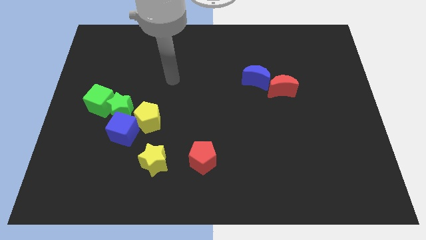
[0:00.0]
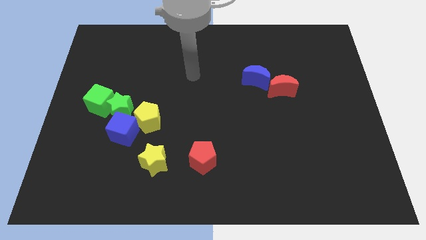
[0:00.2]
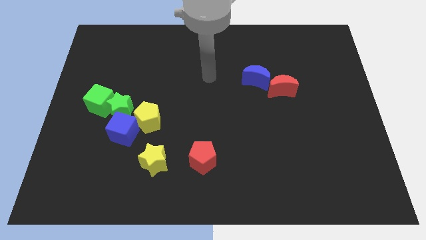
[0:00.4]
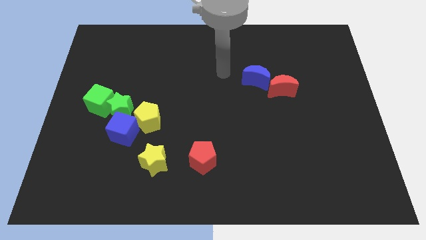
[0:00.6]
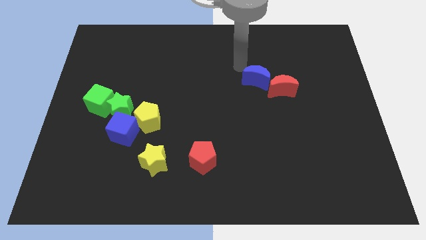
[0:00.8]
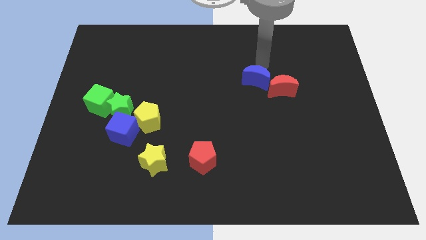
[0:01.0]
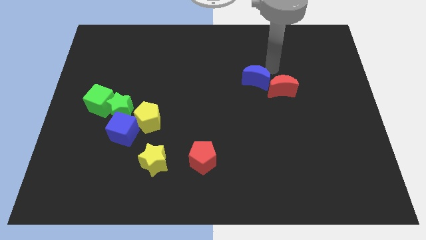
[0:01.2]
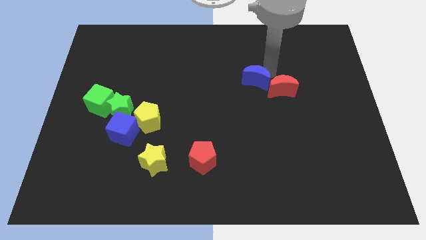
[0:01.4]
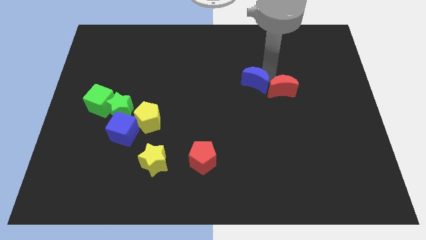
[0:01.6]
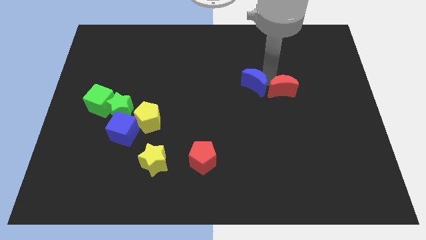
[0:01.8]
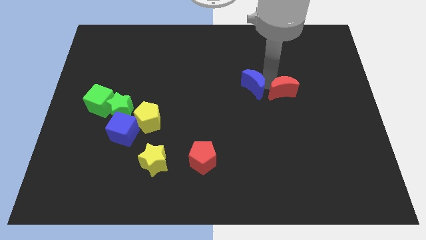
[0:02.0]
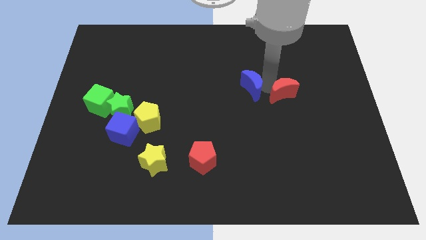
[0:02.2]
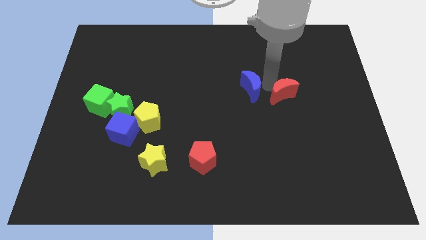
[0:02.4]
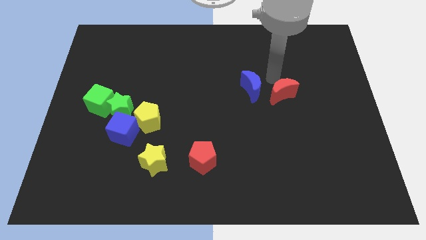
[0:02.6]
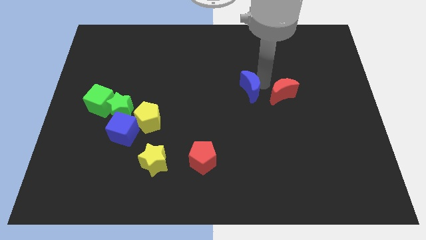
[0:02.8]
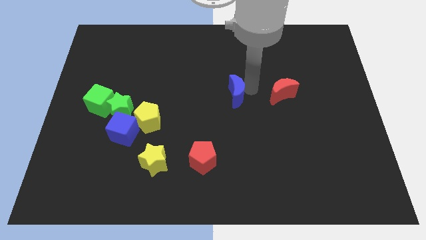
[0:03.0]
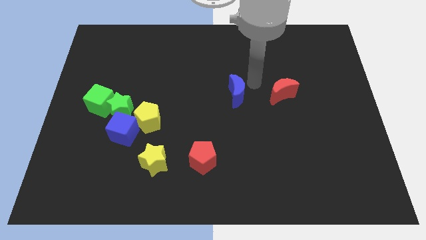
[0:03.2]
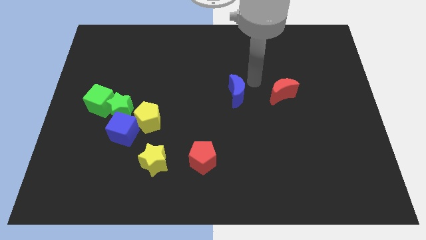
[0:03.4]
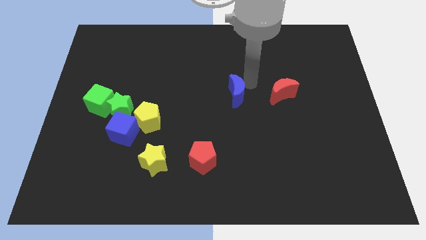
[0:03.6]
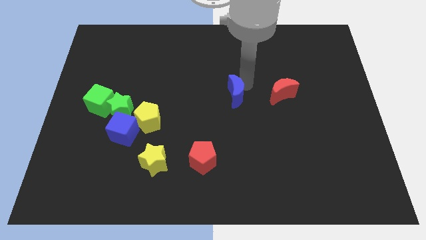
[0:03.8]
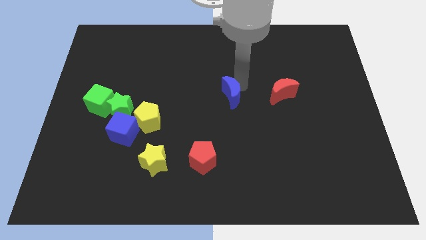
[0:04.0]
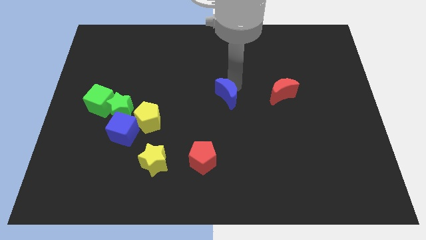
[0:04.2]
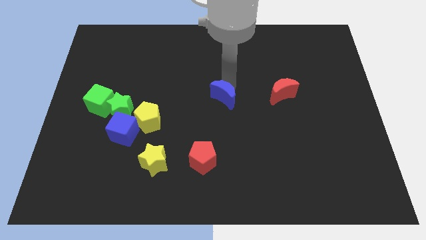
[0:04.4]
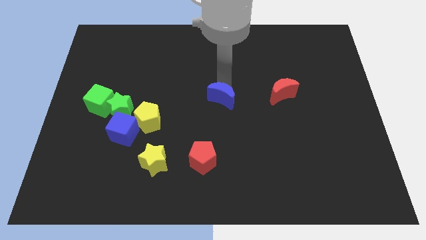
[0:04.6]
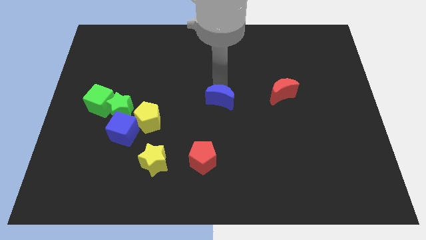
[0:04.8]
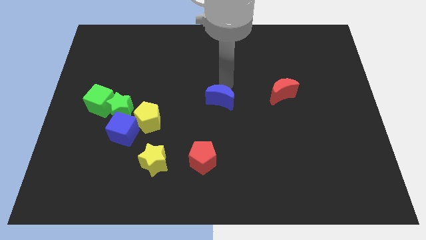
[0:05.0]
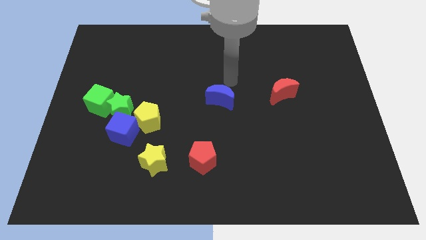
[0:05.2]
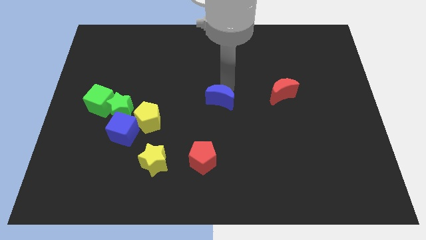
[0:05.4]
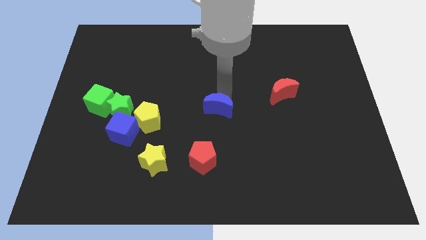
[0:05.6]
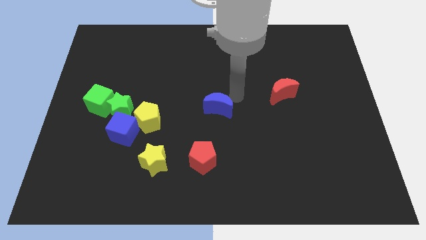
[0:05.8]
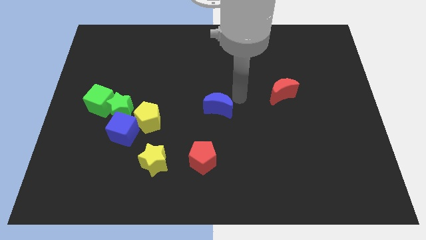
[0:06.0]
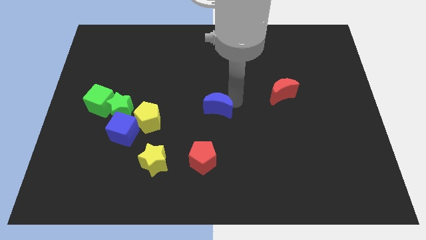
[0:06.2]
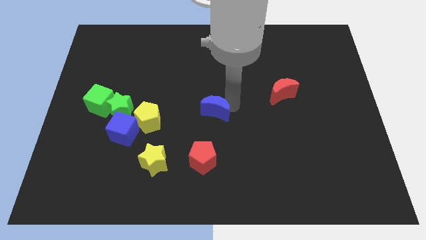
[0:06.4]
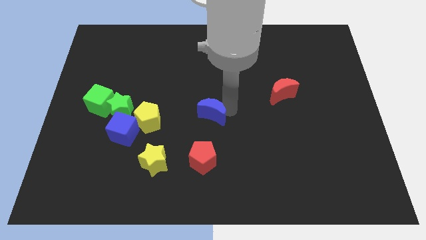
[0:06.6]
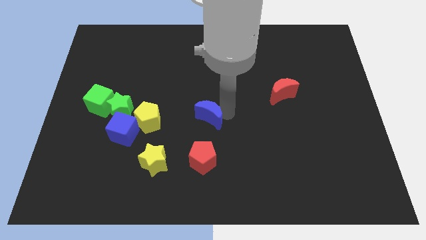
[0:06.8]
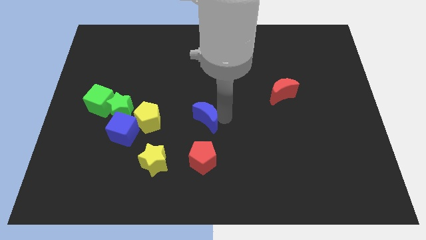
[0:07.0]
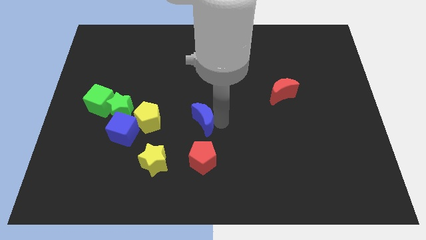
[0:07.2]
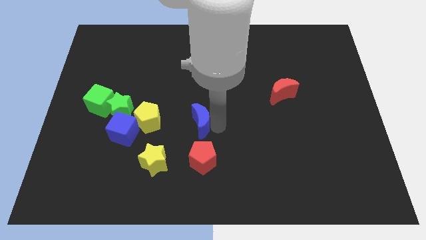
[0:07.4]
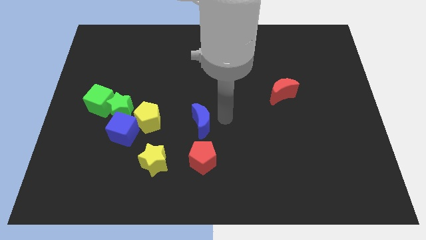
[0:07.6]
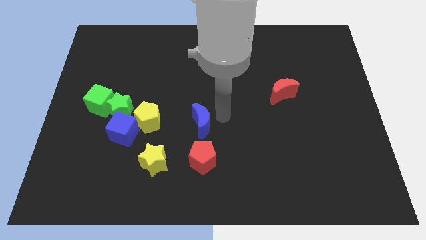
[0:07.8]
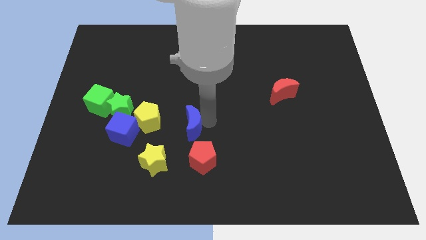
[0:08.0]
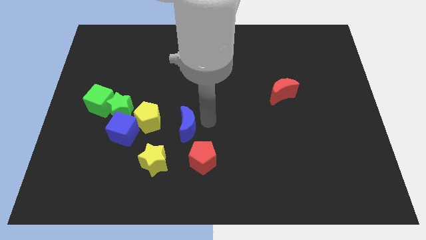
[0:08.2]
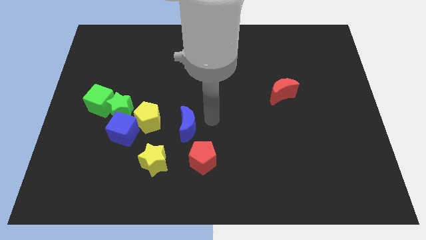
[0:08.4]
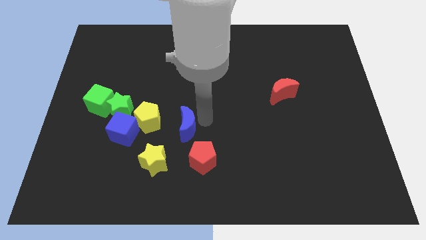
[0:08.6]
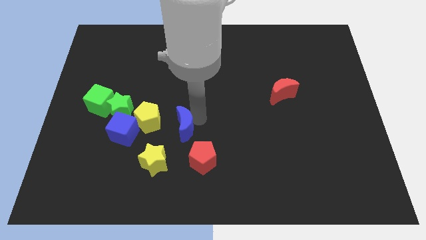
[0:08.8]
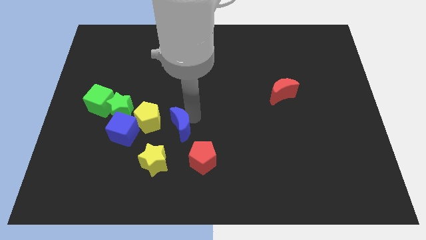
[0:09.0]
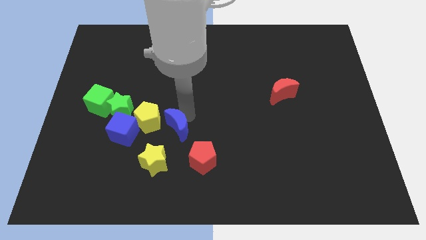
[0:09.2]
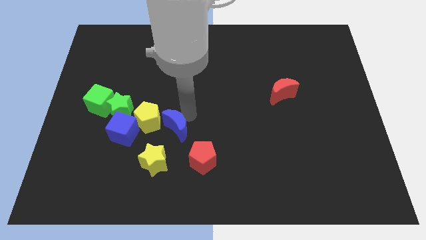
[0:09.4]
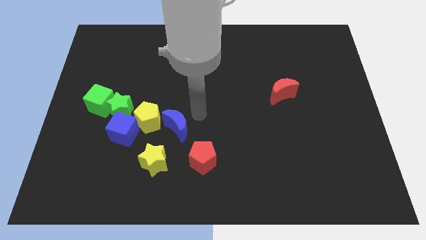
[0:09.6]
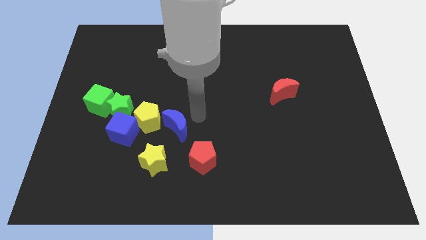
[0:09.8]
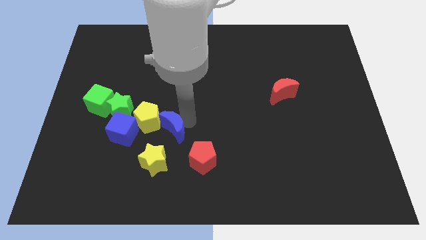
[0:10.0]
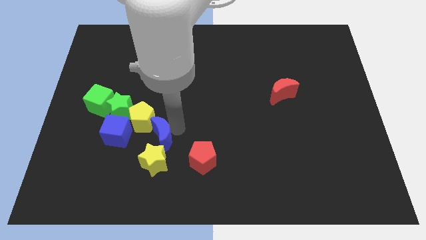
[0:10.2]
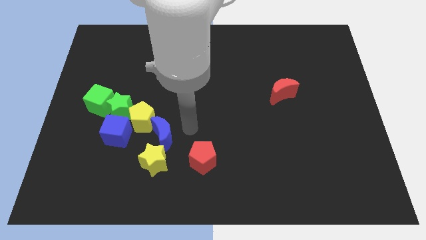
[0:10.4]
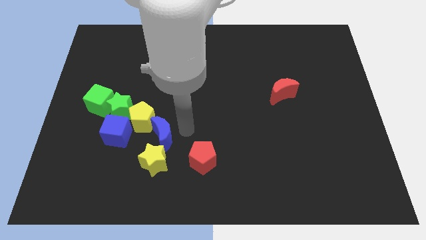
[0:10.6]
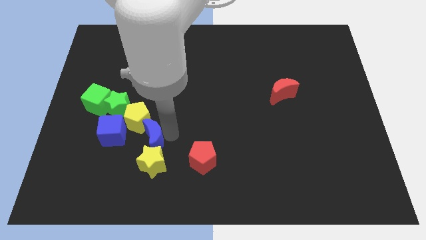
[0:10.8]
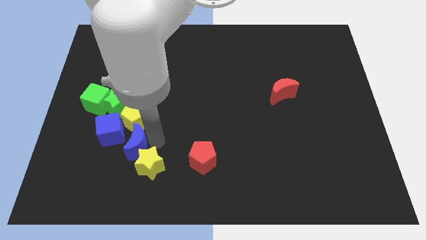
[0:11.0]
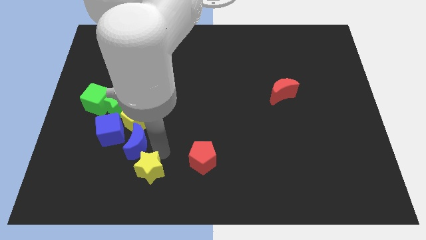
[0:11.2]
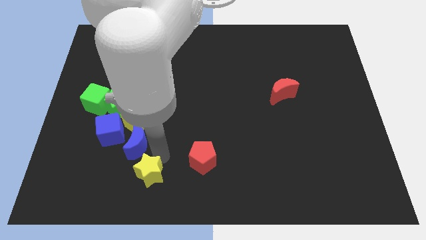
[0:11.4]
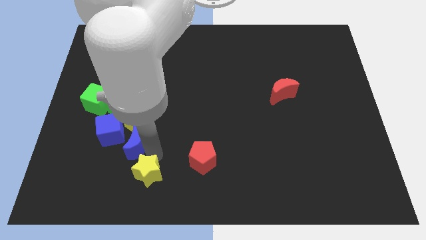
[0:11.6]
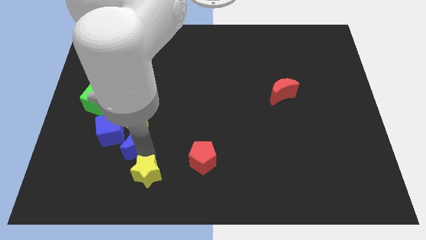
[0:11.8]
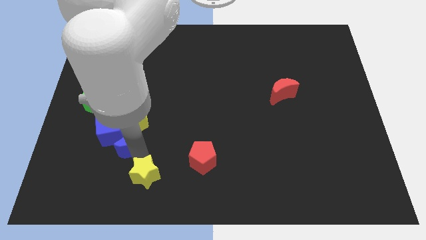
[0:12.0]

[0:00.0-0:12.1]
put the blue moon to the blue cube

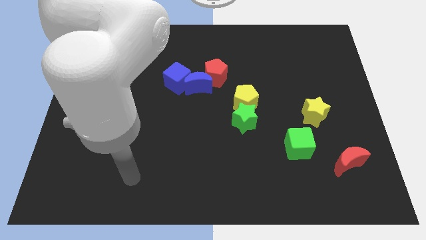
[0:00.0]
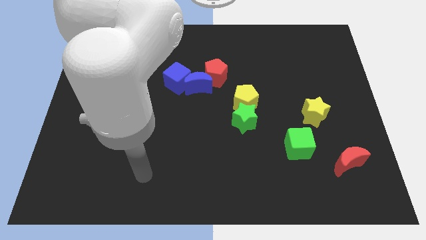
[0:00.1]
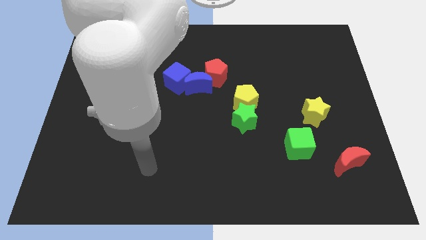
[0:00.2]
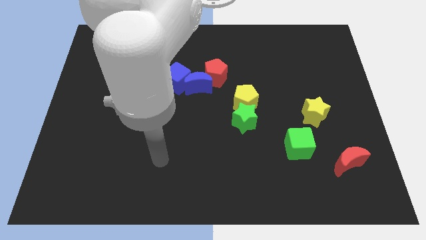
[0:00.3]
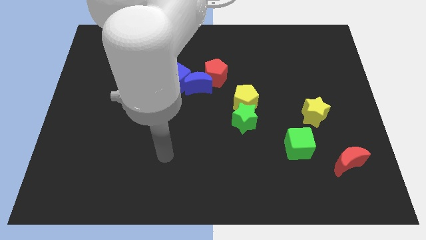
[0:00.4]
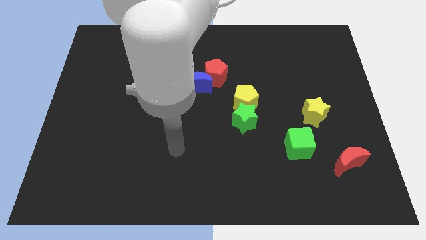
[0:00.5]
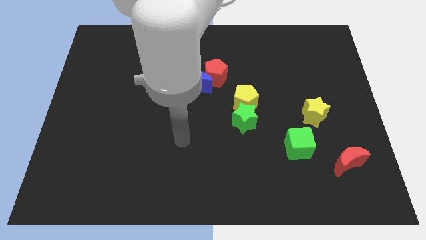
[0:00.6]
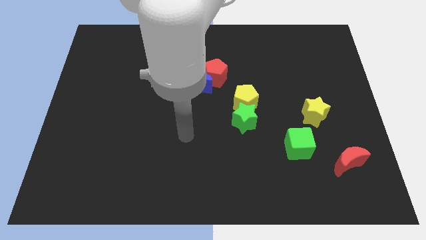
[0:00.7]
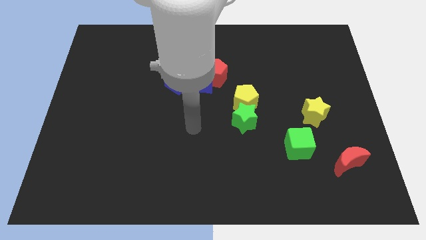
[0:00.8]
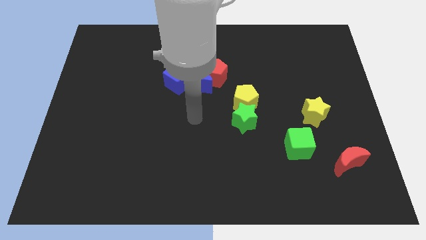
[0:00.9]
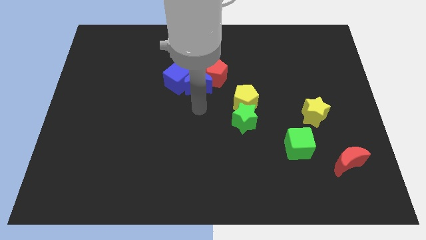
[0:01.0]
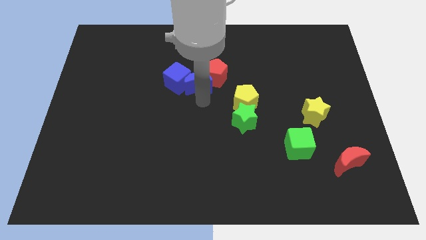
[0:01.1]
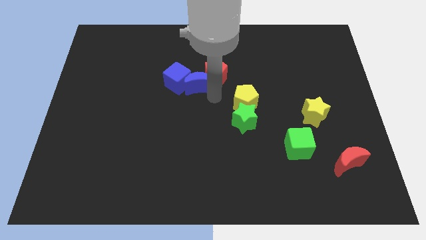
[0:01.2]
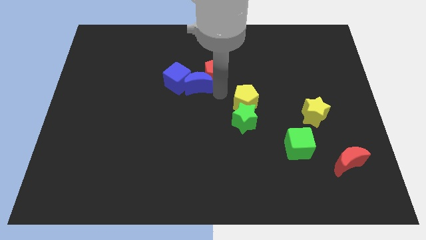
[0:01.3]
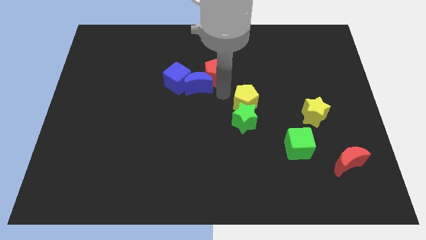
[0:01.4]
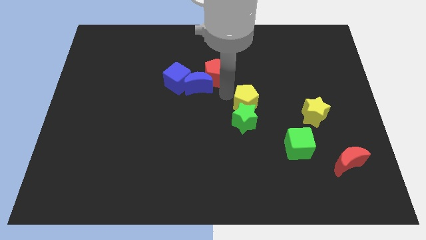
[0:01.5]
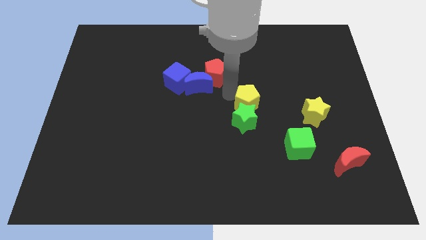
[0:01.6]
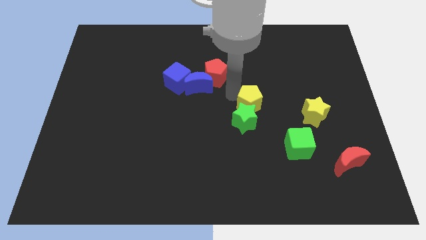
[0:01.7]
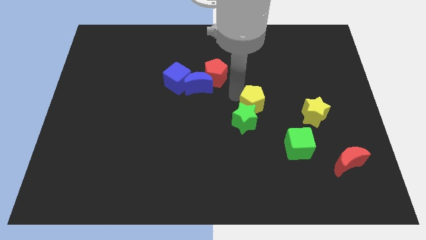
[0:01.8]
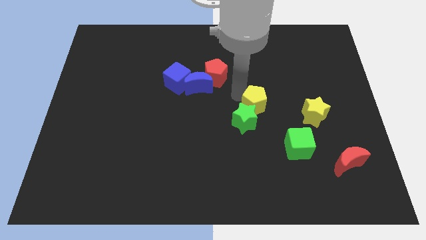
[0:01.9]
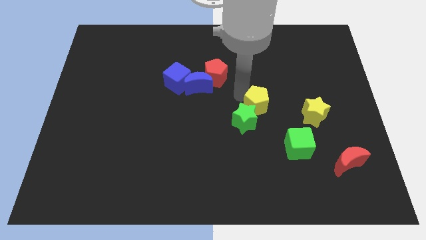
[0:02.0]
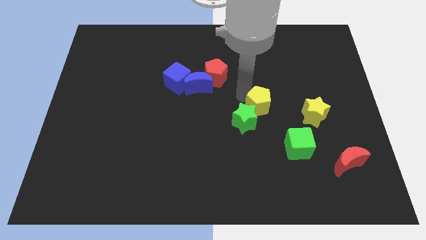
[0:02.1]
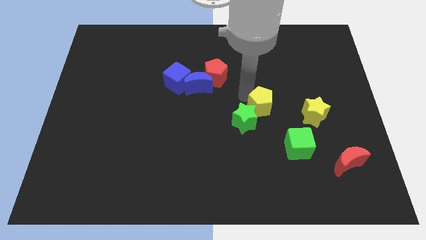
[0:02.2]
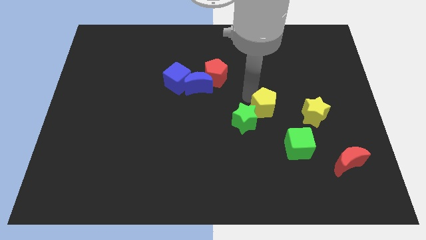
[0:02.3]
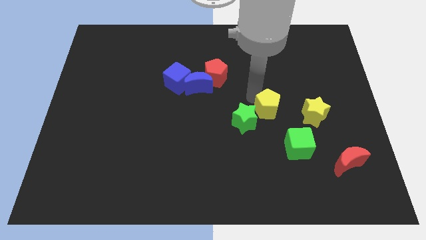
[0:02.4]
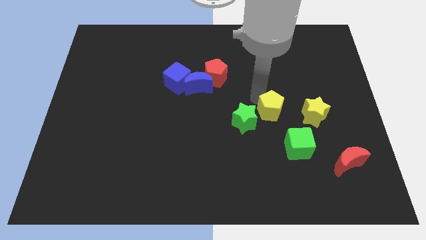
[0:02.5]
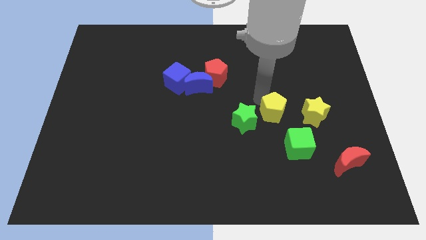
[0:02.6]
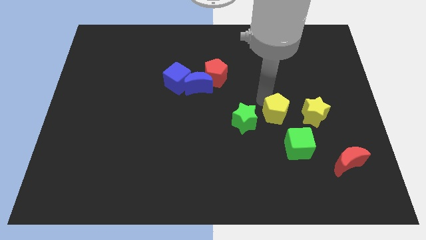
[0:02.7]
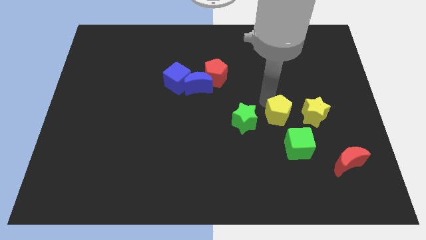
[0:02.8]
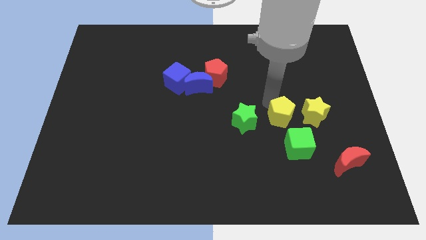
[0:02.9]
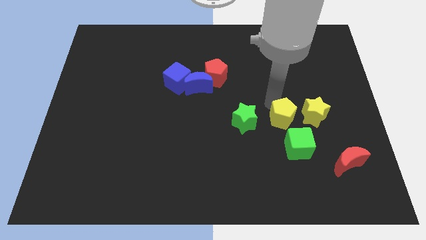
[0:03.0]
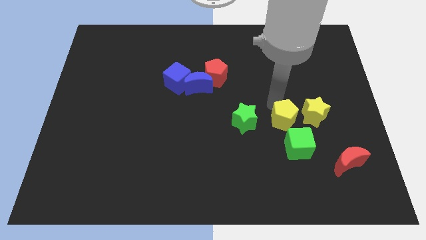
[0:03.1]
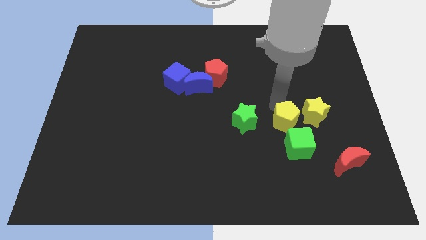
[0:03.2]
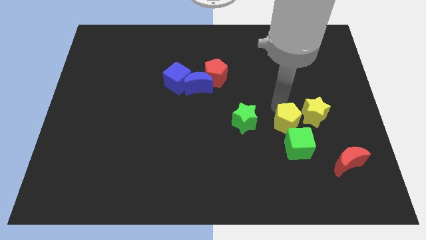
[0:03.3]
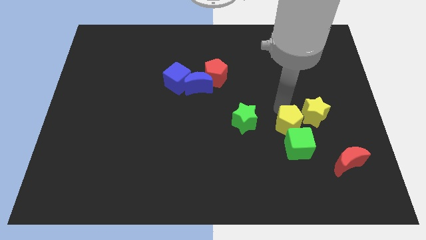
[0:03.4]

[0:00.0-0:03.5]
put the yellow pentagon to the green cube
